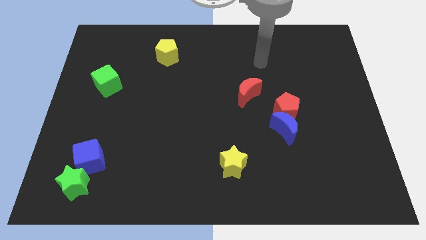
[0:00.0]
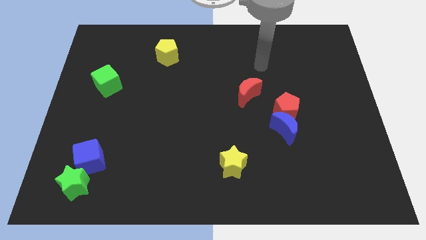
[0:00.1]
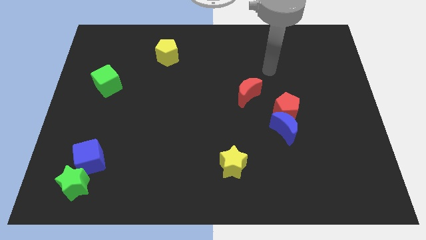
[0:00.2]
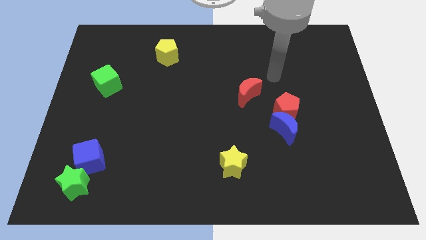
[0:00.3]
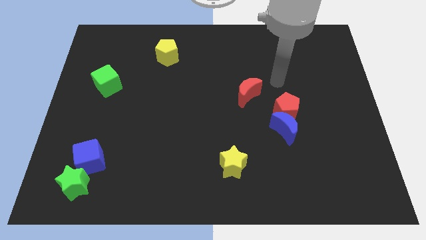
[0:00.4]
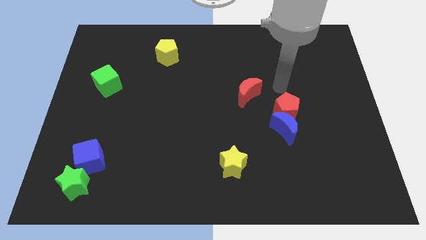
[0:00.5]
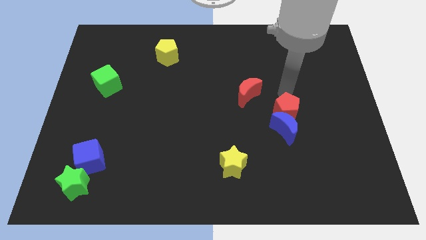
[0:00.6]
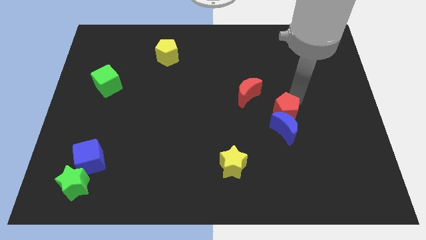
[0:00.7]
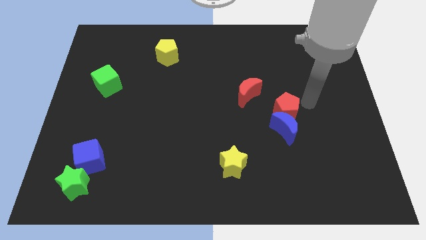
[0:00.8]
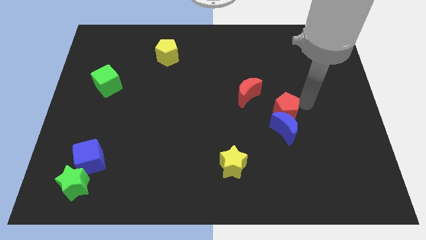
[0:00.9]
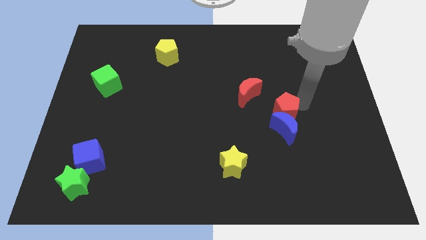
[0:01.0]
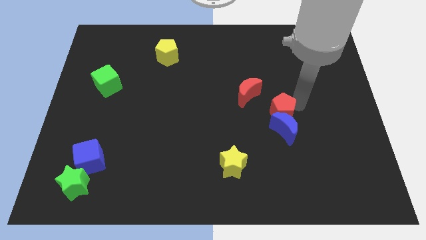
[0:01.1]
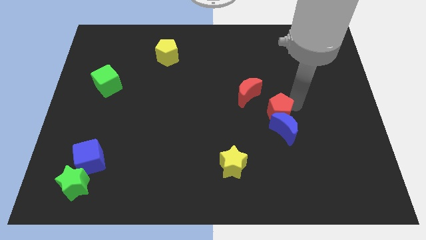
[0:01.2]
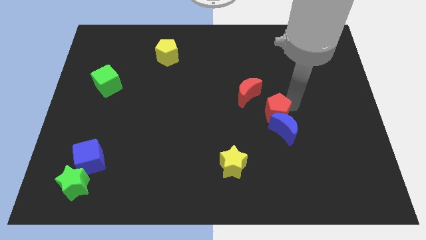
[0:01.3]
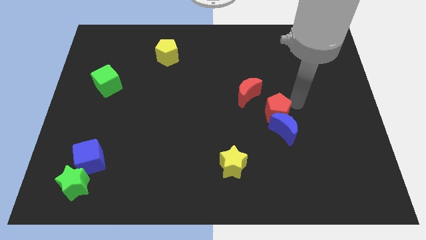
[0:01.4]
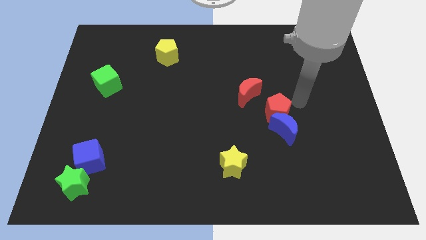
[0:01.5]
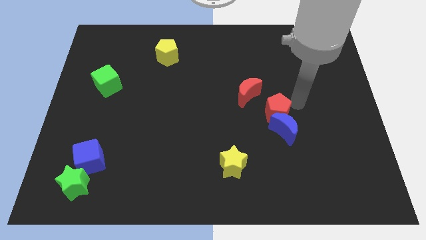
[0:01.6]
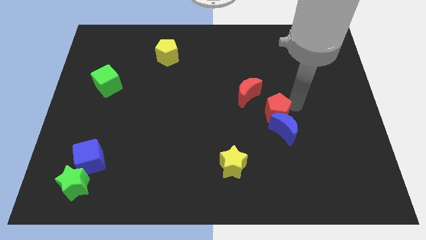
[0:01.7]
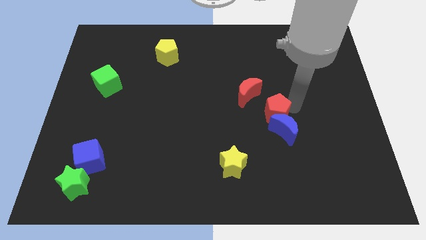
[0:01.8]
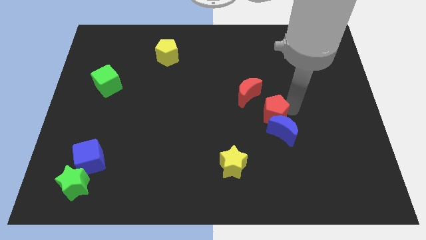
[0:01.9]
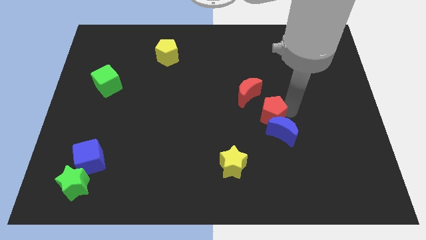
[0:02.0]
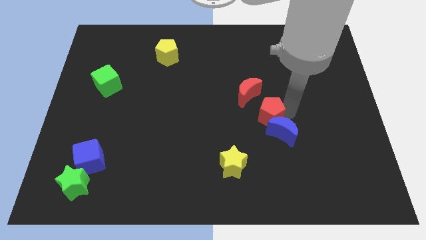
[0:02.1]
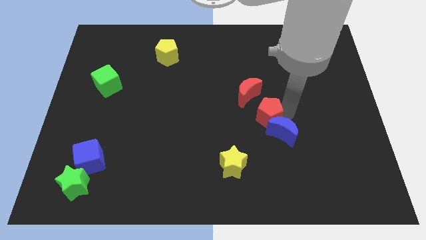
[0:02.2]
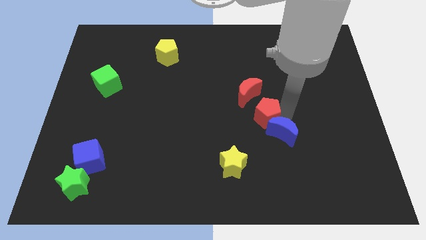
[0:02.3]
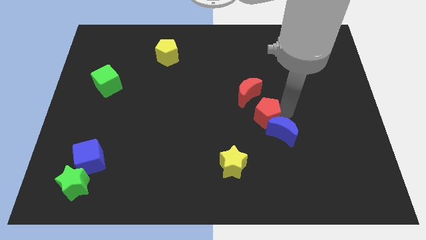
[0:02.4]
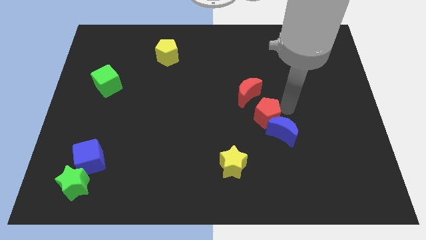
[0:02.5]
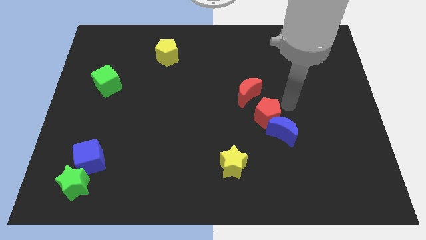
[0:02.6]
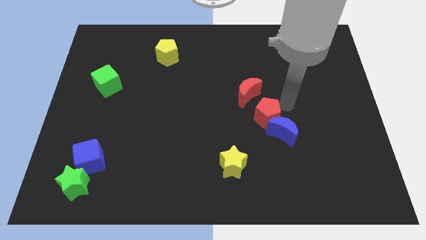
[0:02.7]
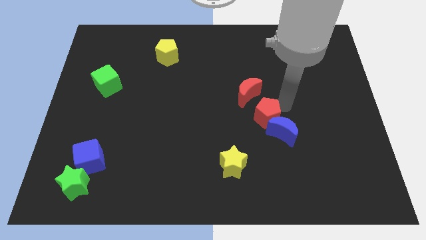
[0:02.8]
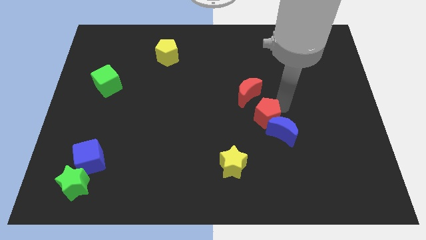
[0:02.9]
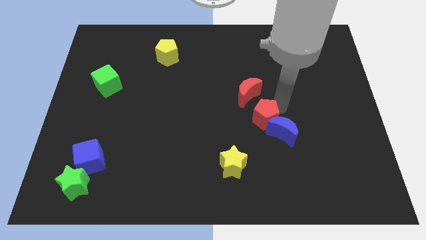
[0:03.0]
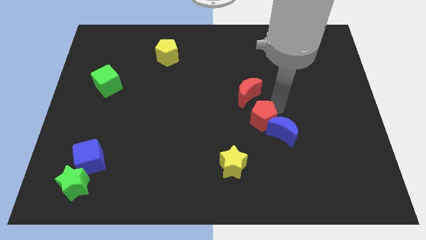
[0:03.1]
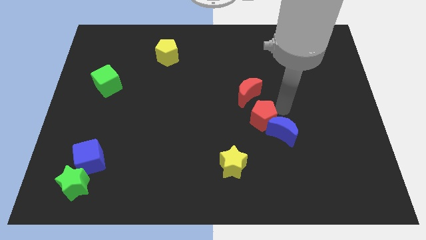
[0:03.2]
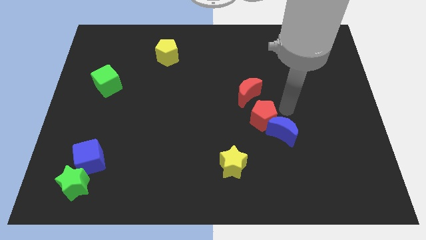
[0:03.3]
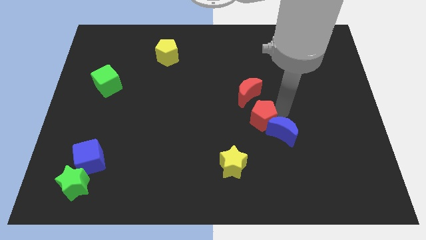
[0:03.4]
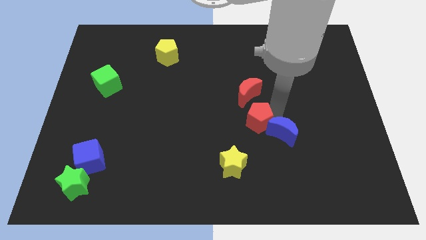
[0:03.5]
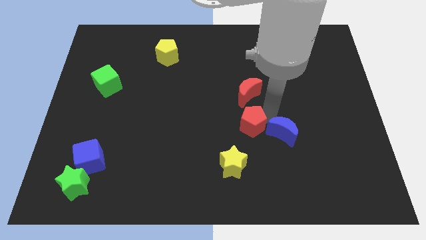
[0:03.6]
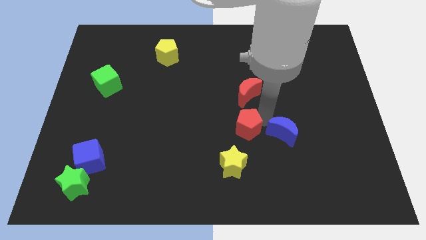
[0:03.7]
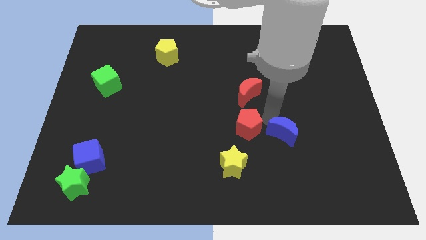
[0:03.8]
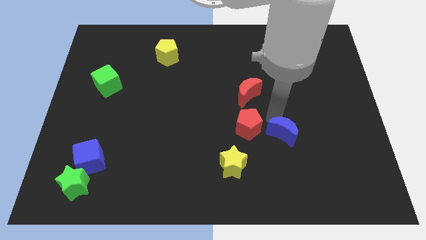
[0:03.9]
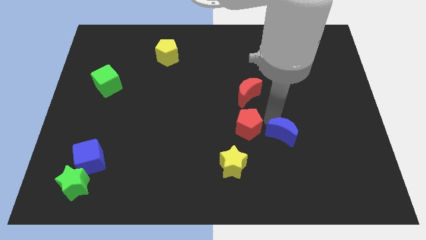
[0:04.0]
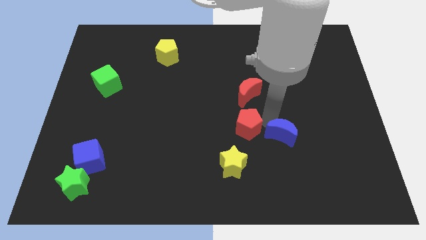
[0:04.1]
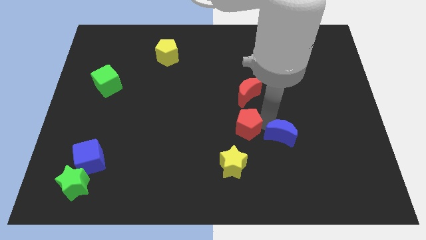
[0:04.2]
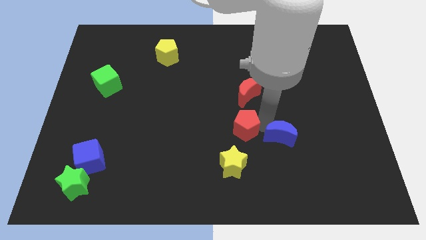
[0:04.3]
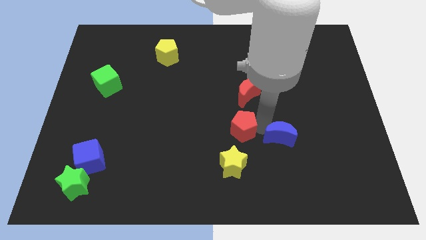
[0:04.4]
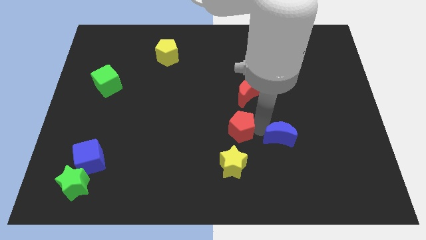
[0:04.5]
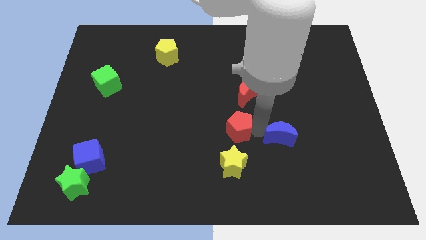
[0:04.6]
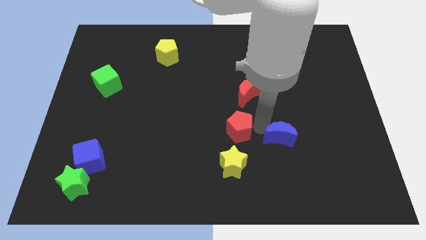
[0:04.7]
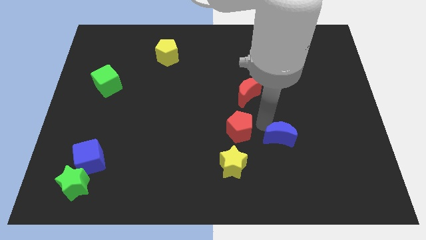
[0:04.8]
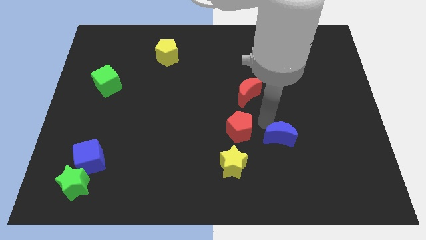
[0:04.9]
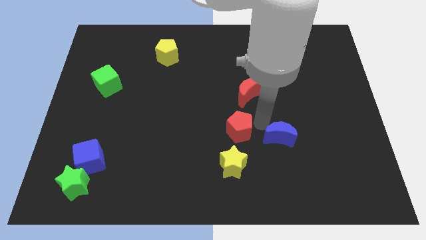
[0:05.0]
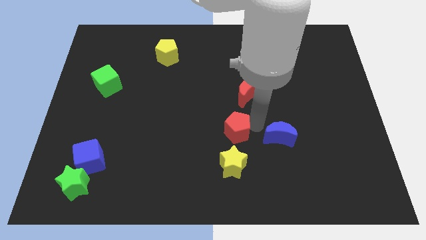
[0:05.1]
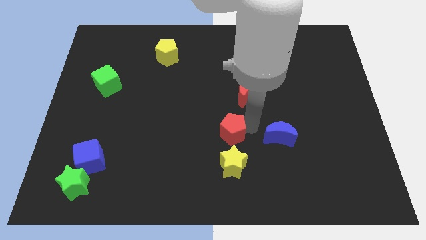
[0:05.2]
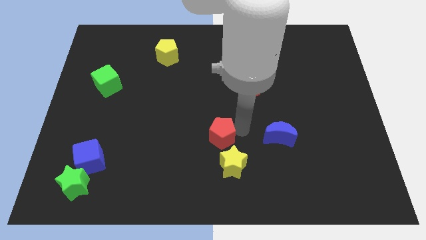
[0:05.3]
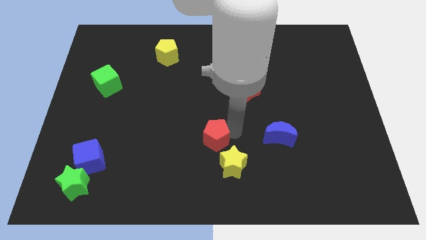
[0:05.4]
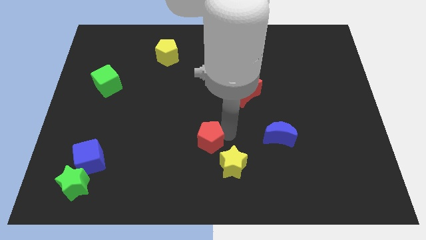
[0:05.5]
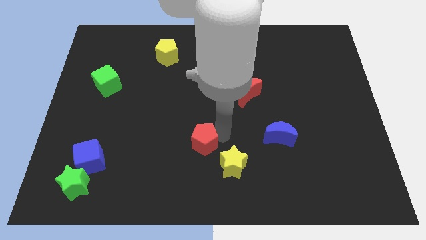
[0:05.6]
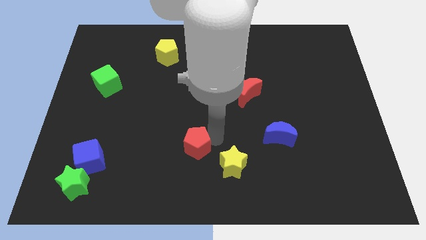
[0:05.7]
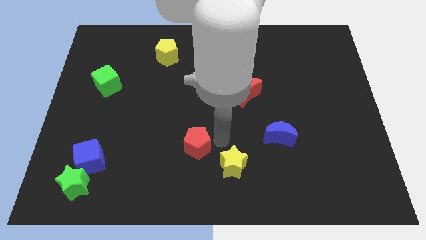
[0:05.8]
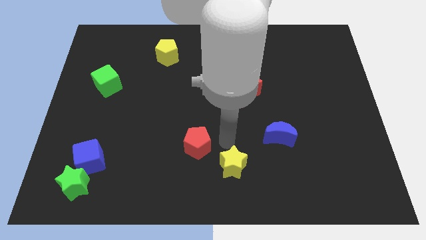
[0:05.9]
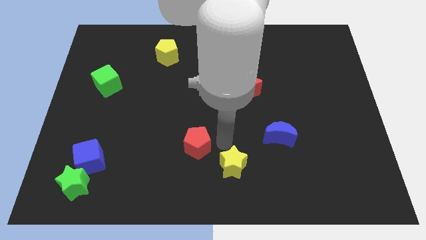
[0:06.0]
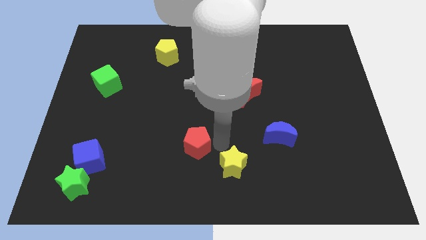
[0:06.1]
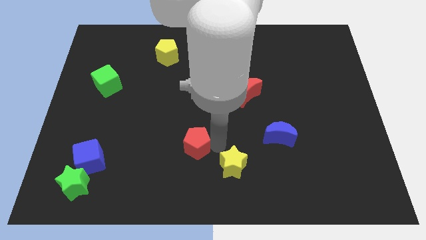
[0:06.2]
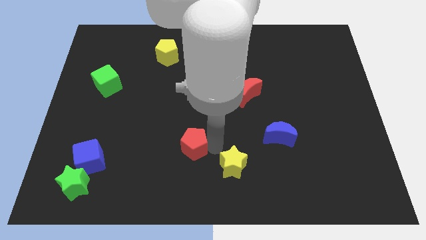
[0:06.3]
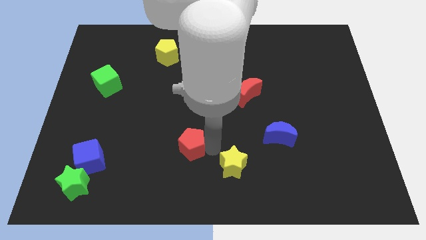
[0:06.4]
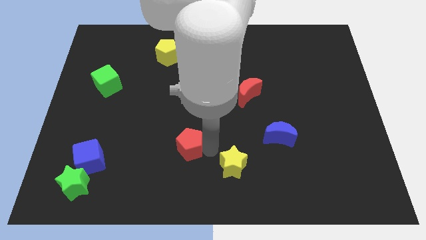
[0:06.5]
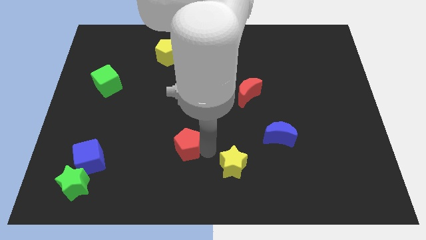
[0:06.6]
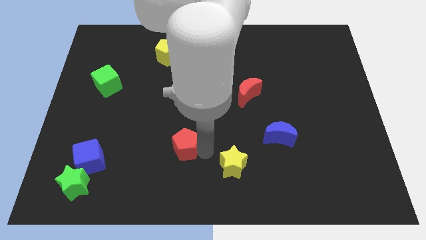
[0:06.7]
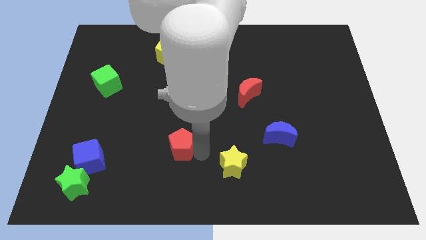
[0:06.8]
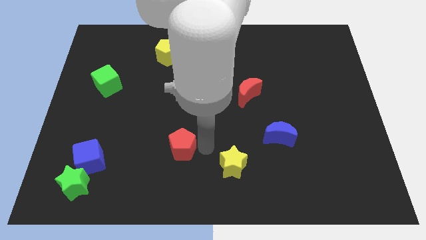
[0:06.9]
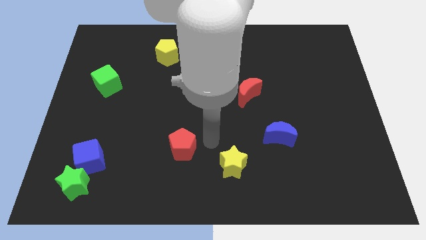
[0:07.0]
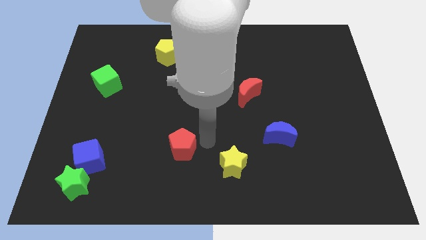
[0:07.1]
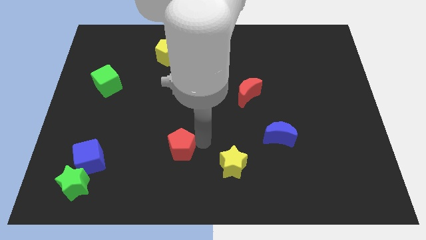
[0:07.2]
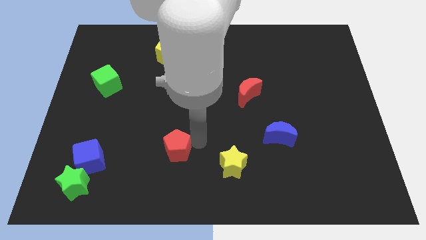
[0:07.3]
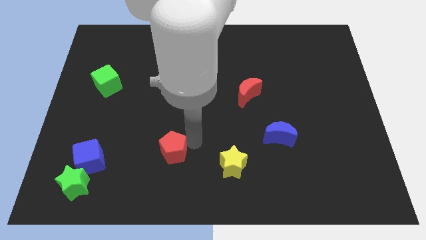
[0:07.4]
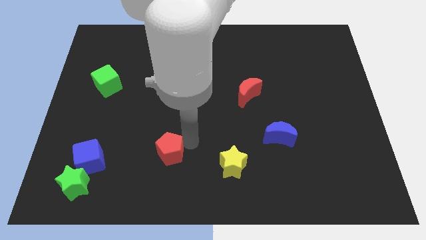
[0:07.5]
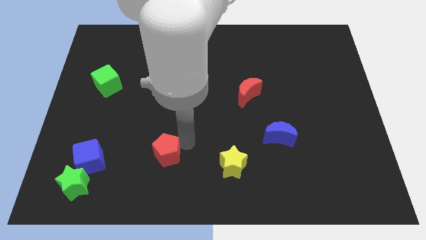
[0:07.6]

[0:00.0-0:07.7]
put the red pentagon just right of the blue cube
